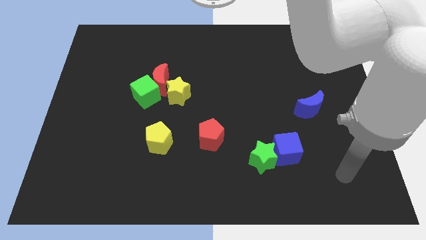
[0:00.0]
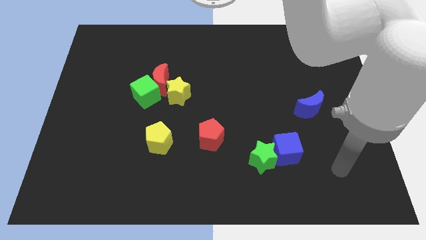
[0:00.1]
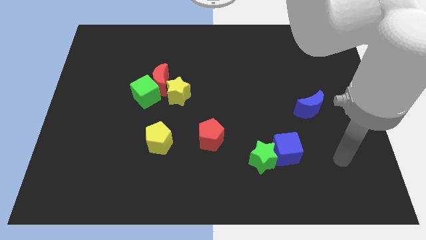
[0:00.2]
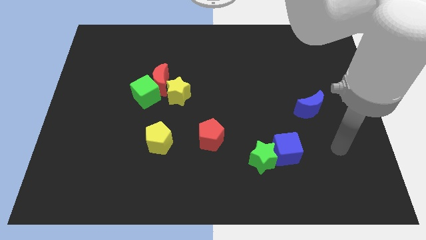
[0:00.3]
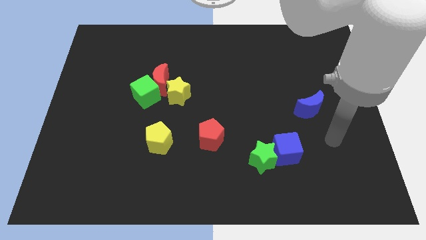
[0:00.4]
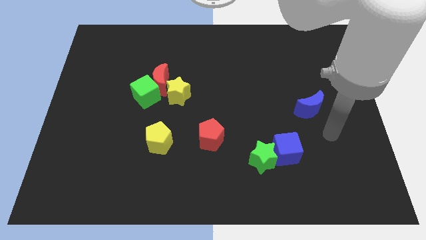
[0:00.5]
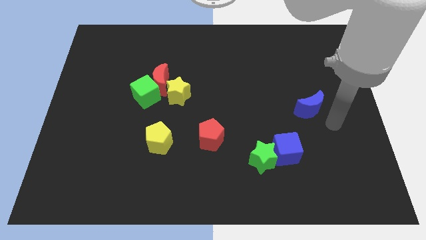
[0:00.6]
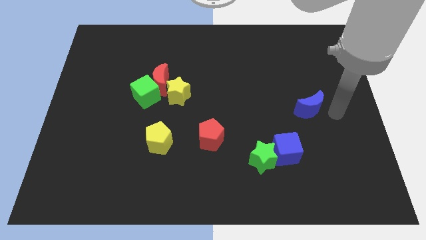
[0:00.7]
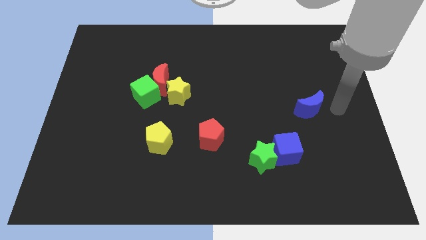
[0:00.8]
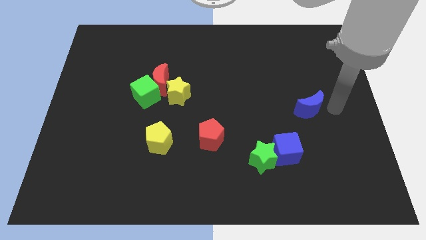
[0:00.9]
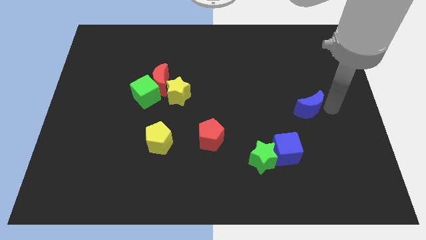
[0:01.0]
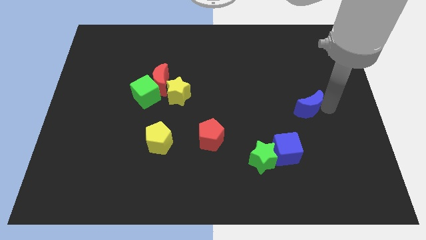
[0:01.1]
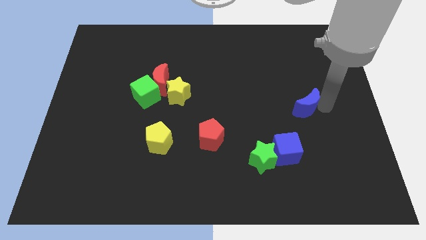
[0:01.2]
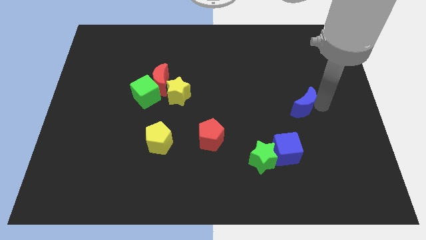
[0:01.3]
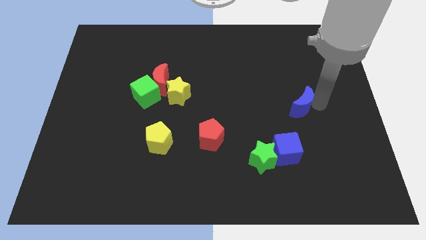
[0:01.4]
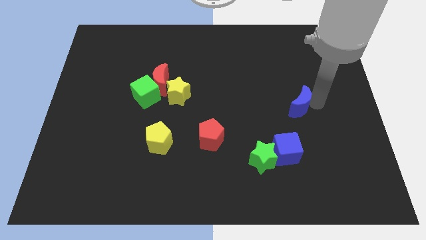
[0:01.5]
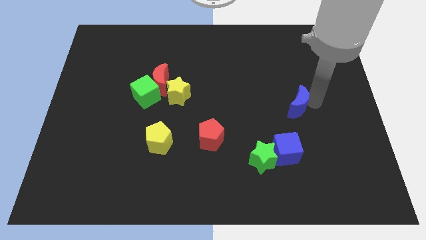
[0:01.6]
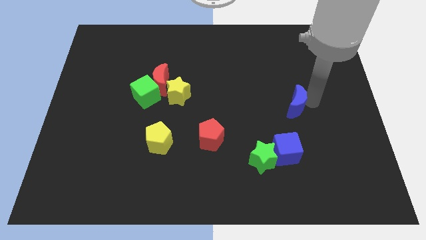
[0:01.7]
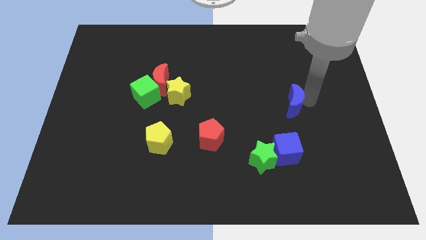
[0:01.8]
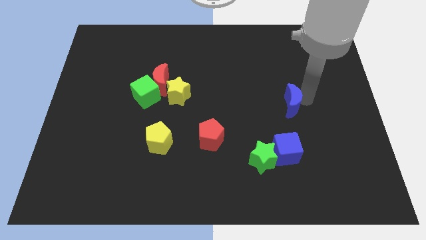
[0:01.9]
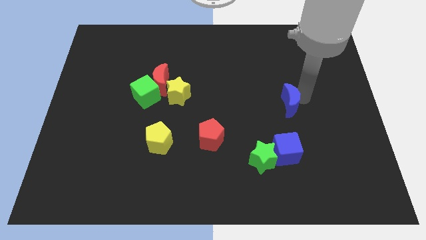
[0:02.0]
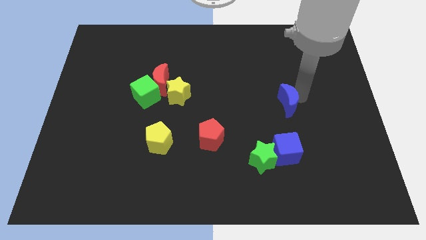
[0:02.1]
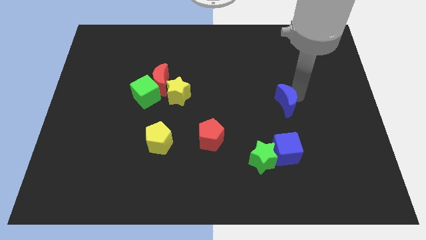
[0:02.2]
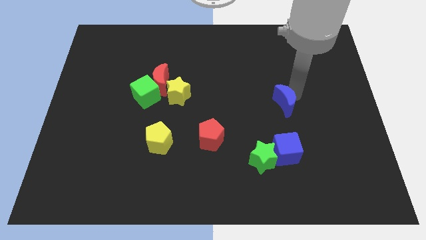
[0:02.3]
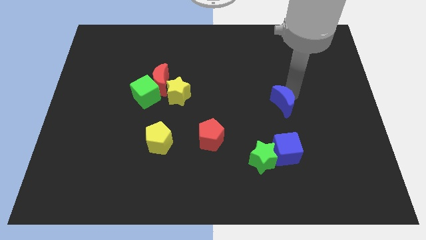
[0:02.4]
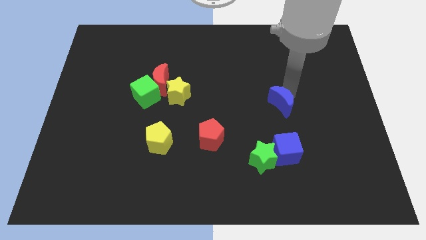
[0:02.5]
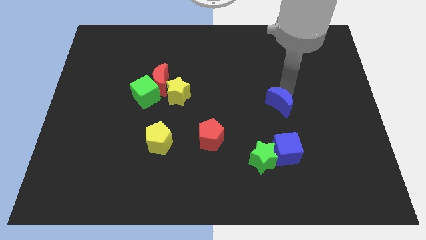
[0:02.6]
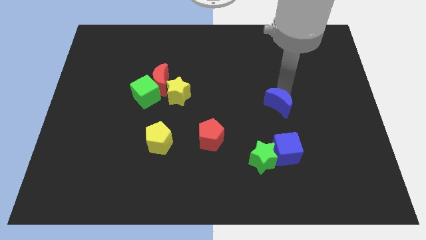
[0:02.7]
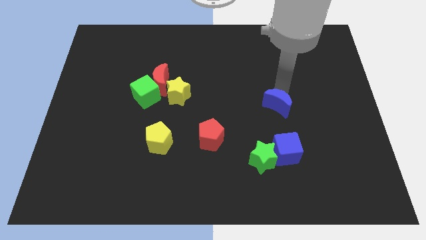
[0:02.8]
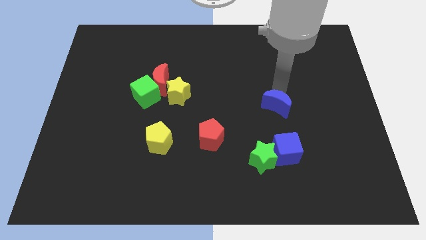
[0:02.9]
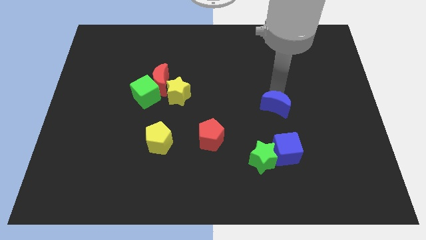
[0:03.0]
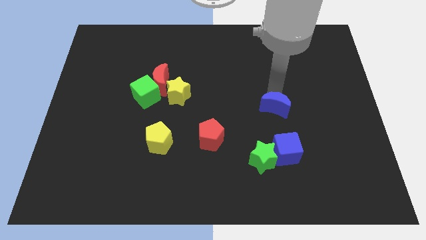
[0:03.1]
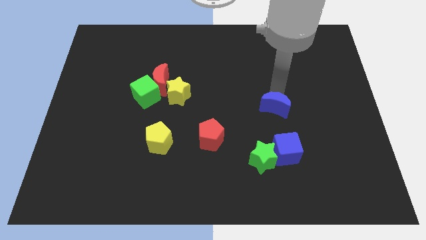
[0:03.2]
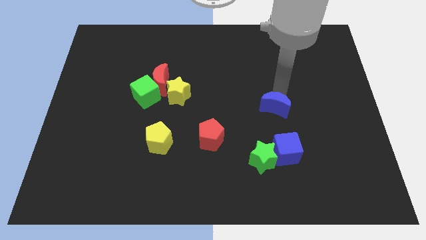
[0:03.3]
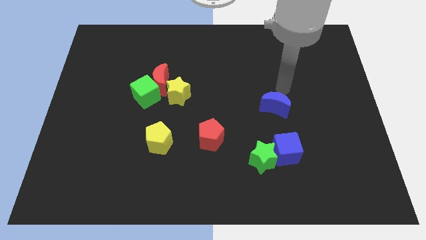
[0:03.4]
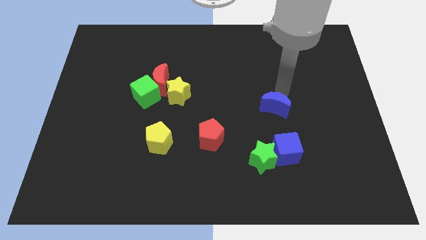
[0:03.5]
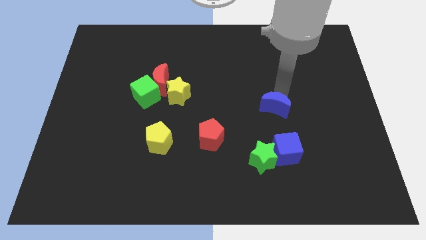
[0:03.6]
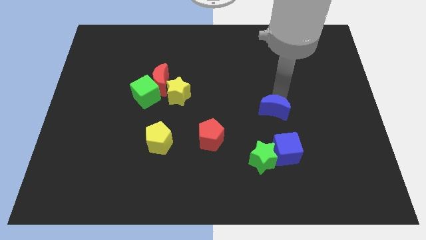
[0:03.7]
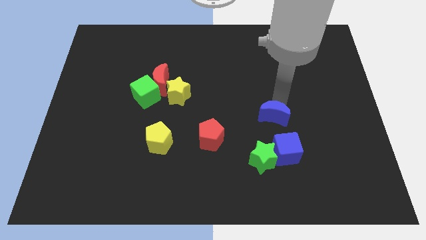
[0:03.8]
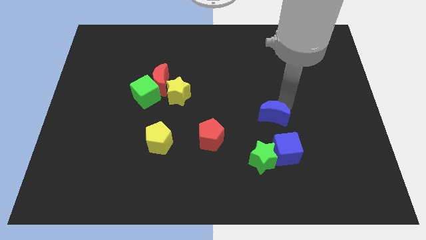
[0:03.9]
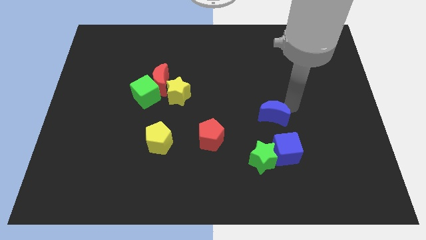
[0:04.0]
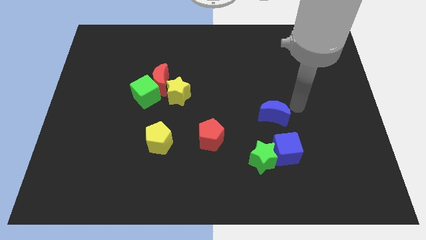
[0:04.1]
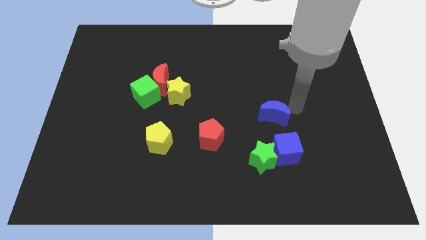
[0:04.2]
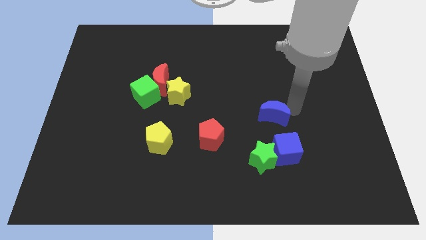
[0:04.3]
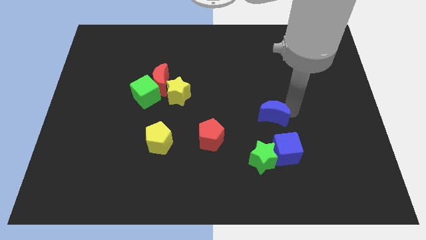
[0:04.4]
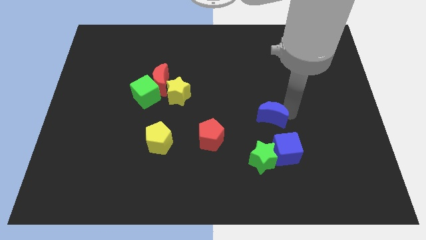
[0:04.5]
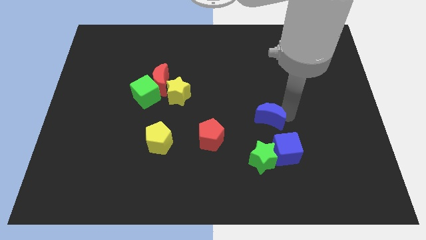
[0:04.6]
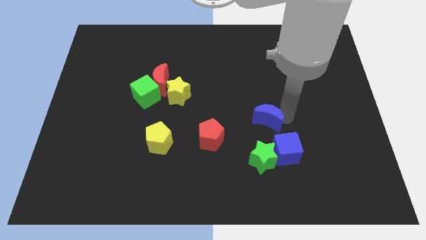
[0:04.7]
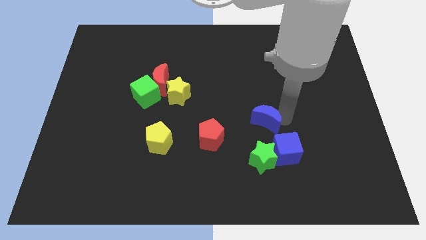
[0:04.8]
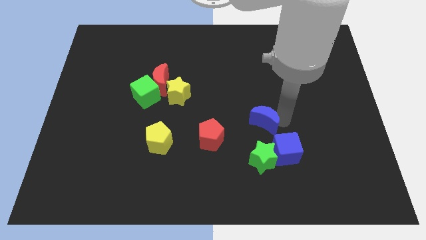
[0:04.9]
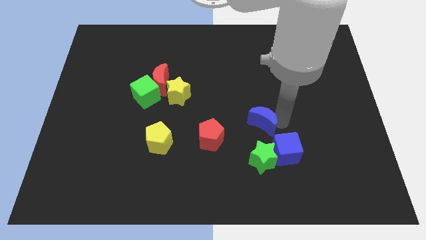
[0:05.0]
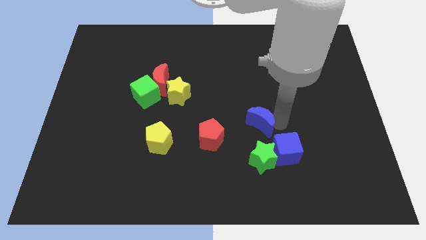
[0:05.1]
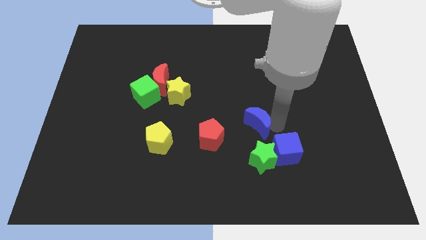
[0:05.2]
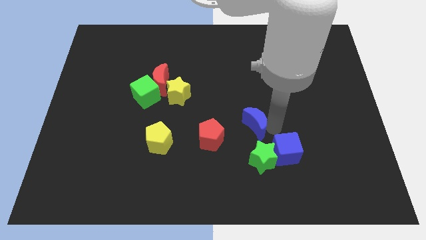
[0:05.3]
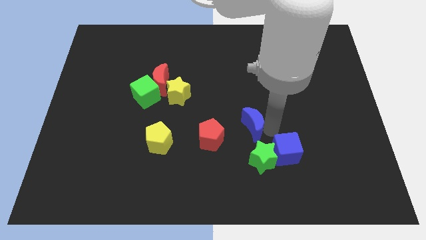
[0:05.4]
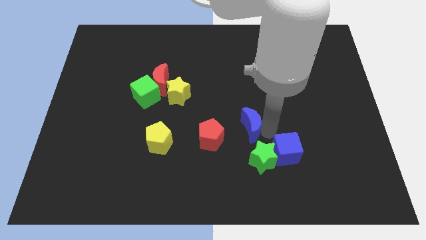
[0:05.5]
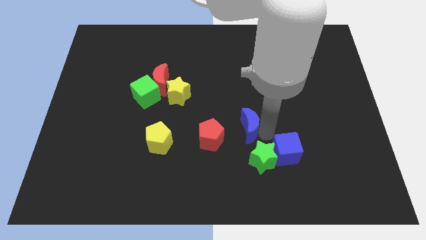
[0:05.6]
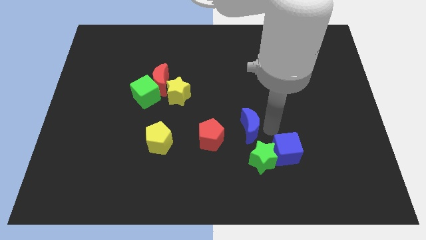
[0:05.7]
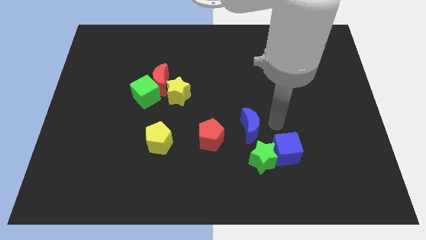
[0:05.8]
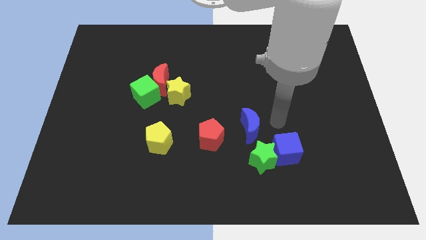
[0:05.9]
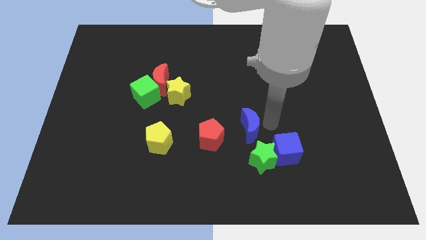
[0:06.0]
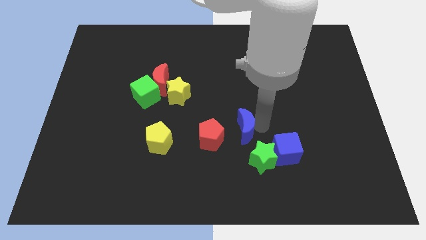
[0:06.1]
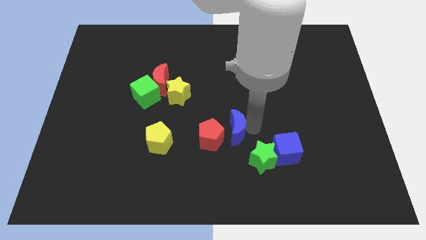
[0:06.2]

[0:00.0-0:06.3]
put the blue moon to the red pentagon

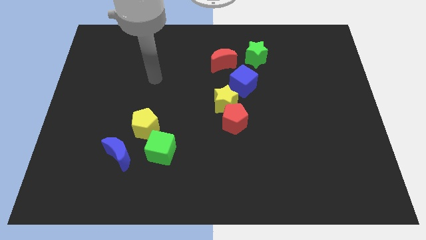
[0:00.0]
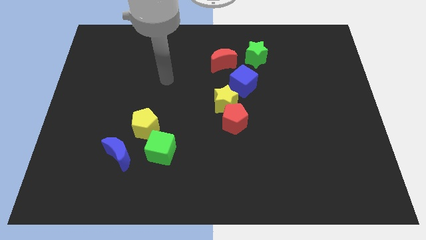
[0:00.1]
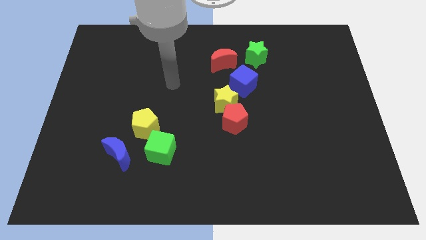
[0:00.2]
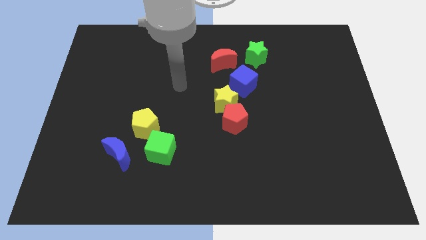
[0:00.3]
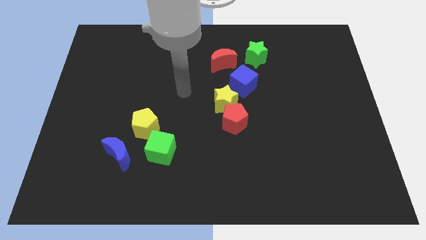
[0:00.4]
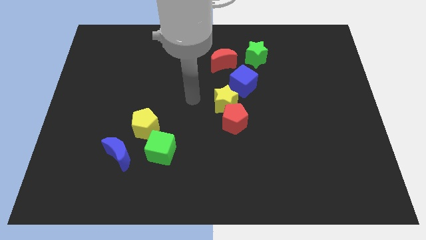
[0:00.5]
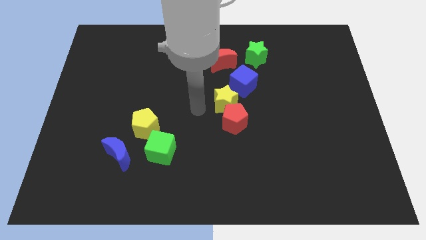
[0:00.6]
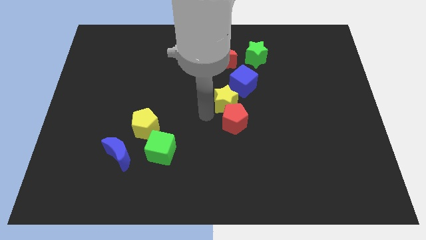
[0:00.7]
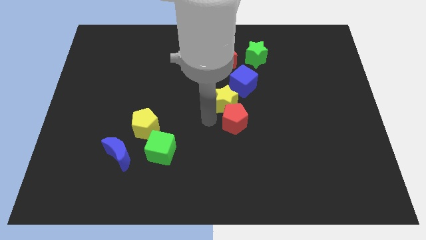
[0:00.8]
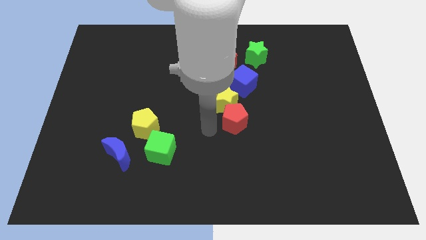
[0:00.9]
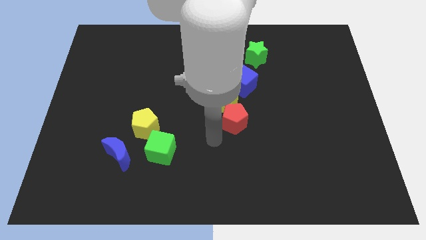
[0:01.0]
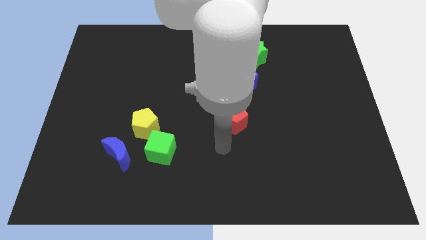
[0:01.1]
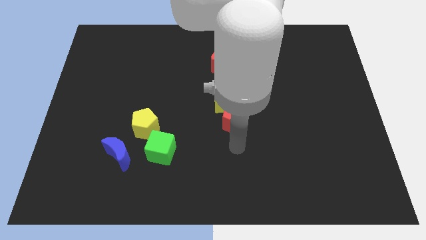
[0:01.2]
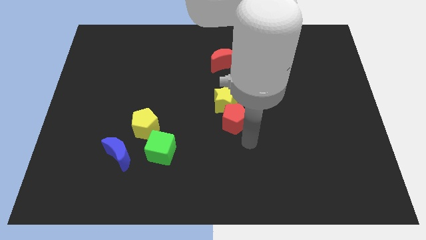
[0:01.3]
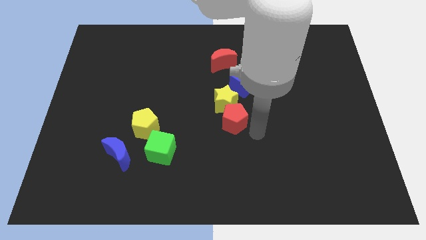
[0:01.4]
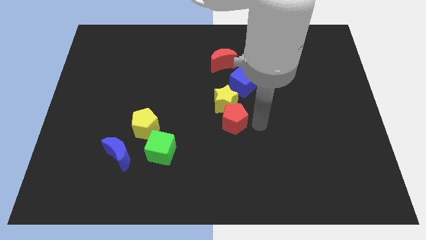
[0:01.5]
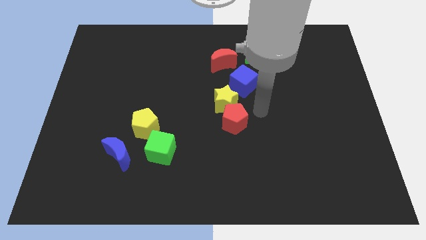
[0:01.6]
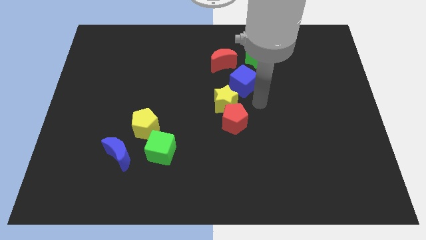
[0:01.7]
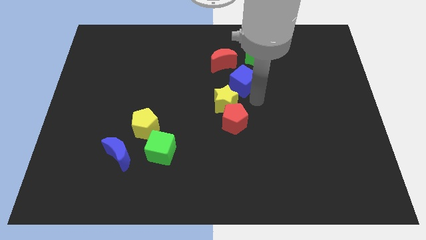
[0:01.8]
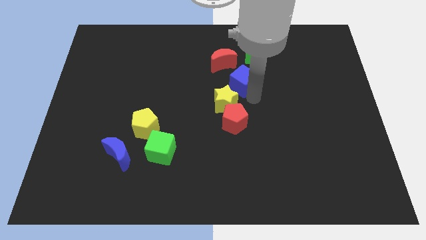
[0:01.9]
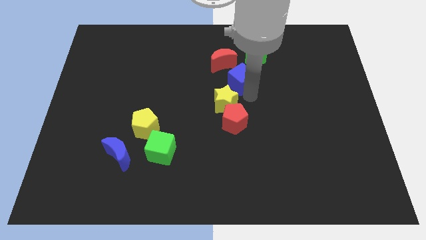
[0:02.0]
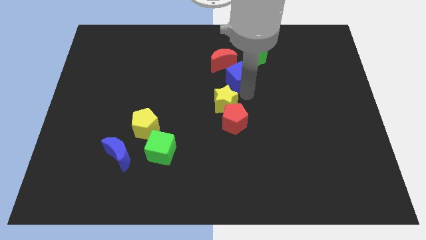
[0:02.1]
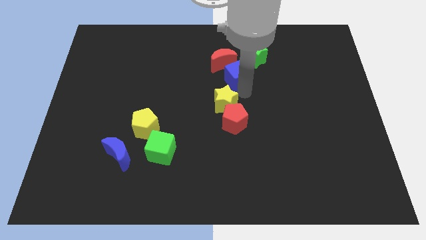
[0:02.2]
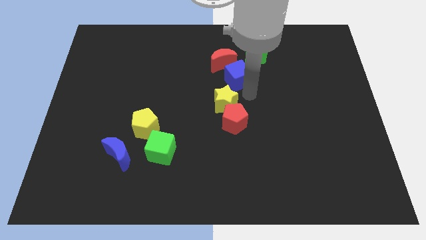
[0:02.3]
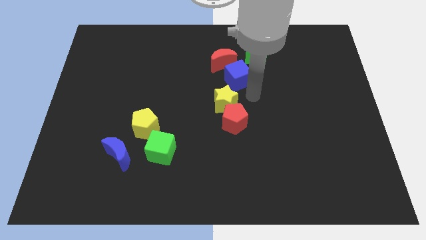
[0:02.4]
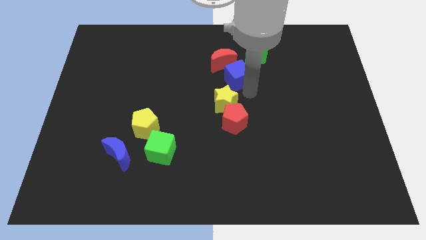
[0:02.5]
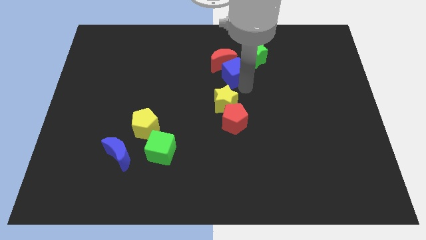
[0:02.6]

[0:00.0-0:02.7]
put the blue cube next to the red moon
